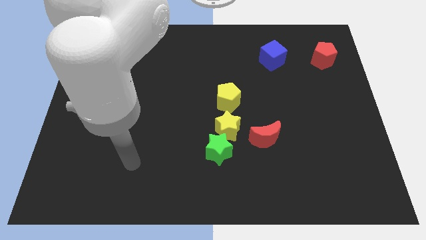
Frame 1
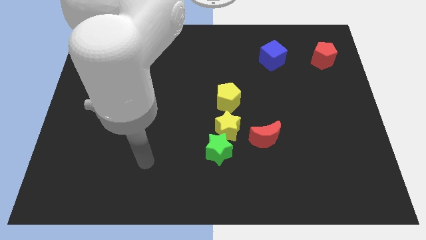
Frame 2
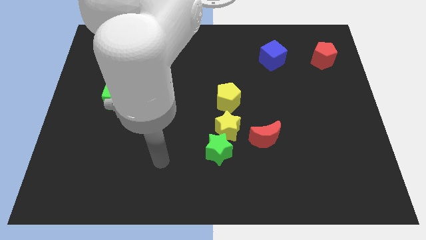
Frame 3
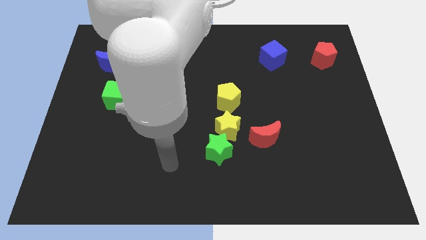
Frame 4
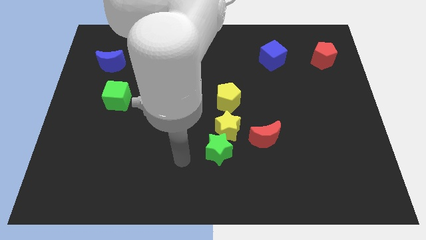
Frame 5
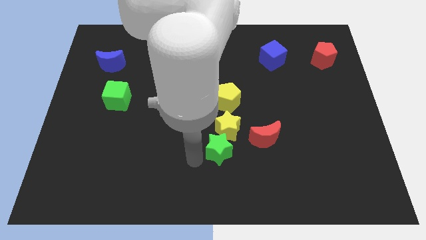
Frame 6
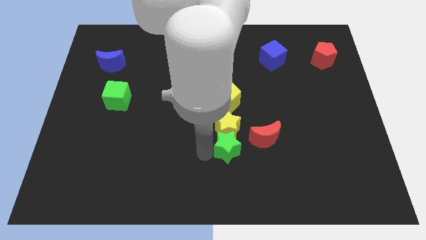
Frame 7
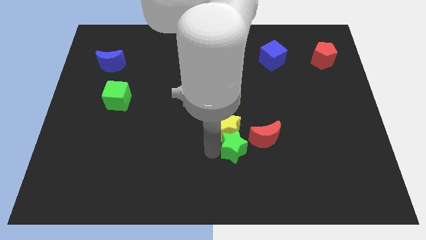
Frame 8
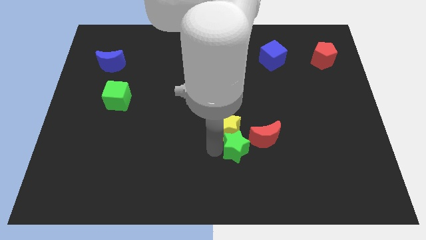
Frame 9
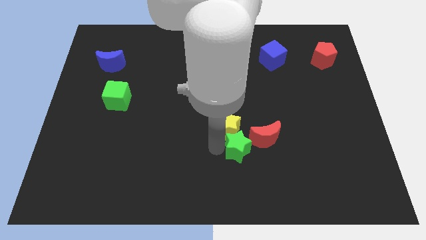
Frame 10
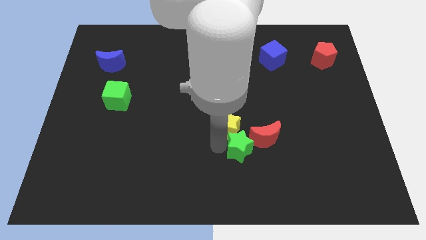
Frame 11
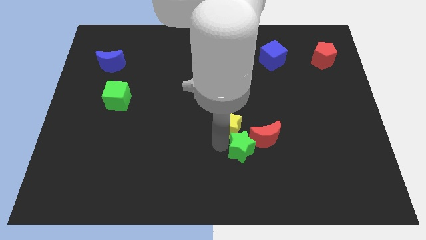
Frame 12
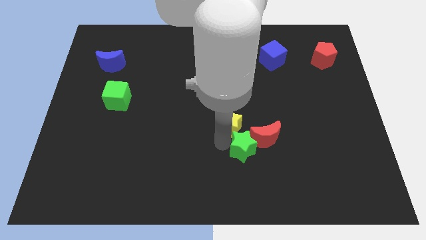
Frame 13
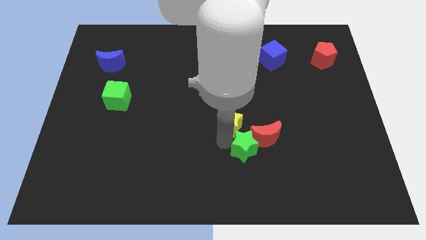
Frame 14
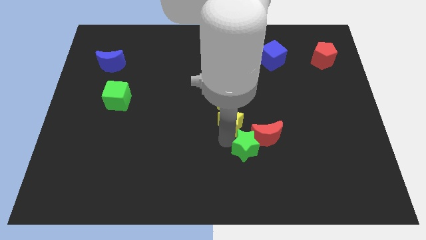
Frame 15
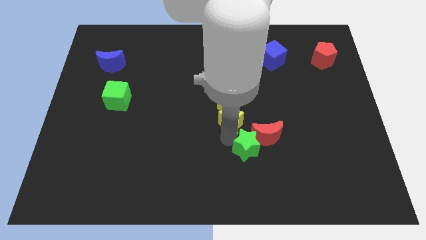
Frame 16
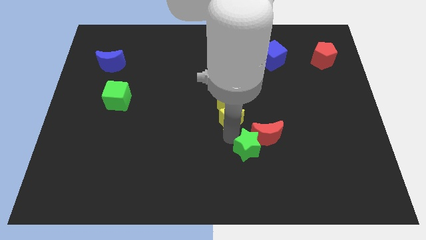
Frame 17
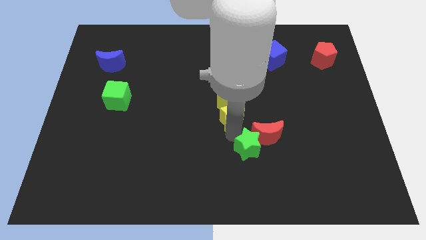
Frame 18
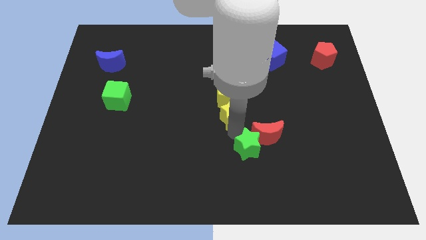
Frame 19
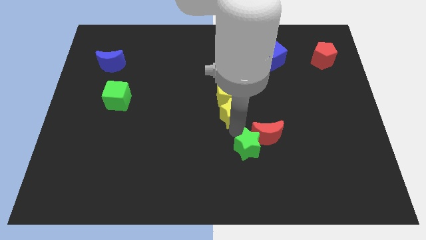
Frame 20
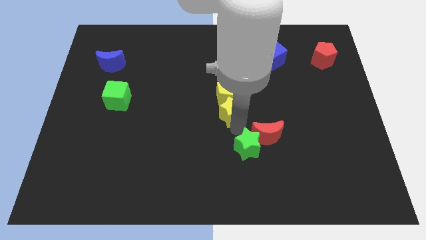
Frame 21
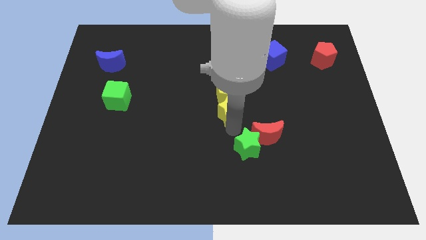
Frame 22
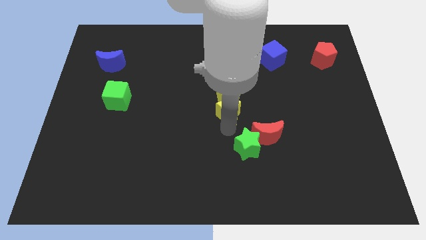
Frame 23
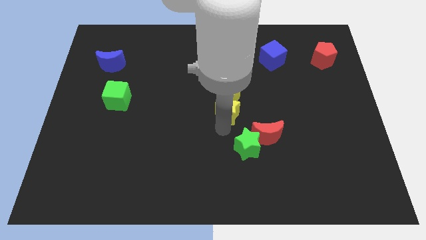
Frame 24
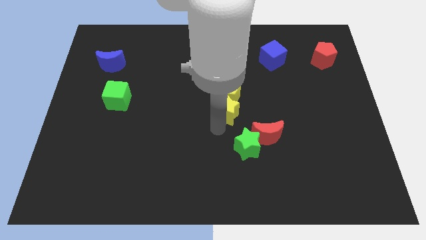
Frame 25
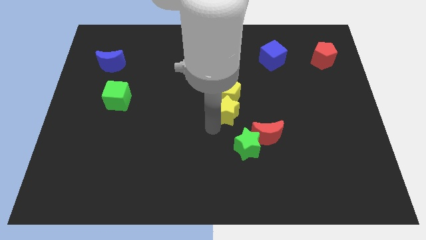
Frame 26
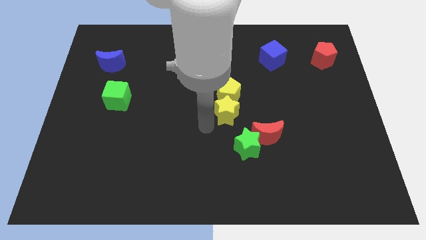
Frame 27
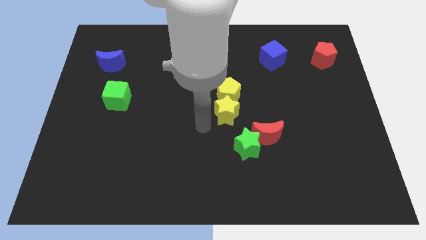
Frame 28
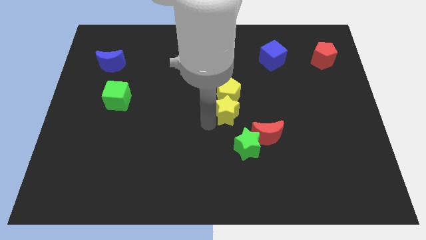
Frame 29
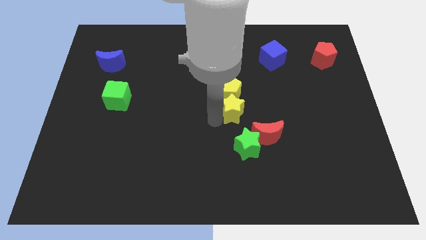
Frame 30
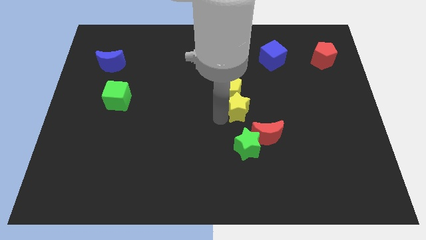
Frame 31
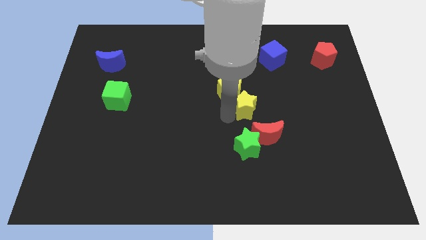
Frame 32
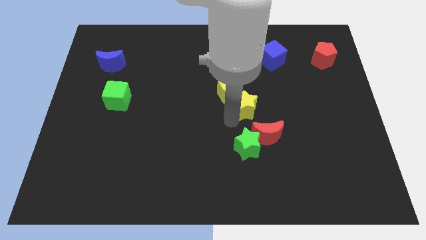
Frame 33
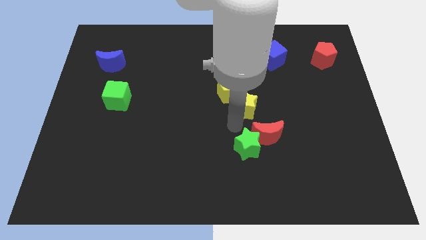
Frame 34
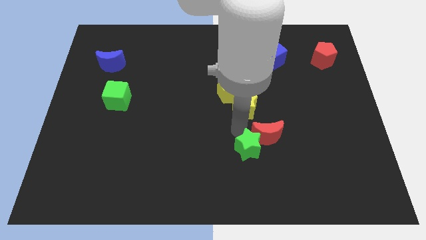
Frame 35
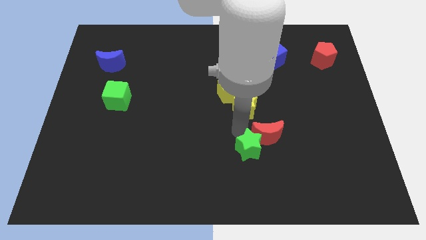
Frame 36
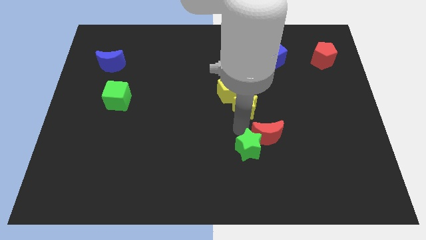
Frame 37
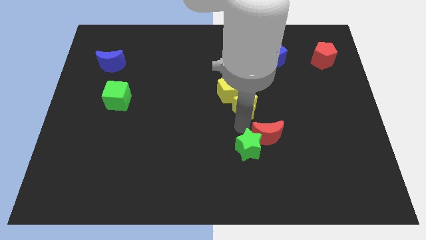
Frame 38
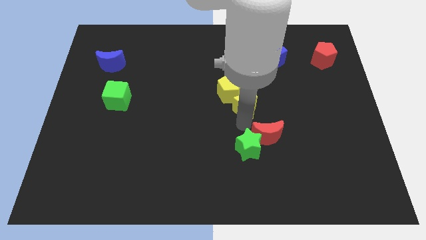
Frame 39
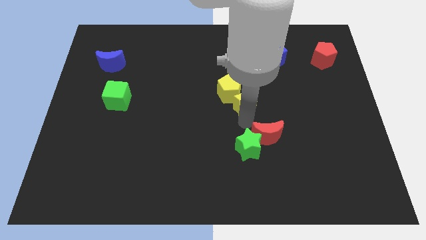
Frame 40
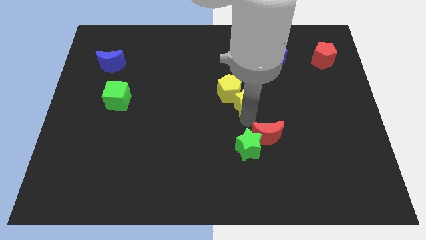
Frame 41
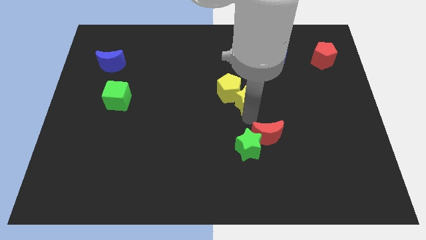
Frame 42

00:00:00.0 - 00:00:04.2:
slightly move the yellow star up

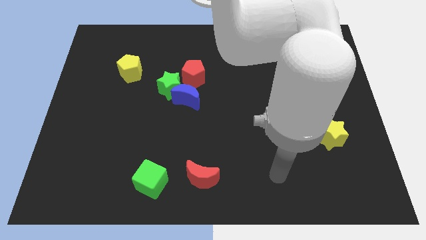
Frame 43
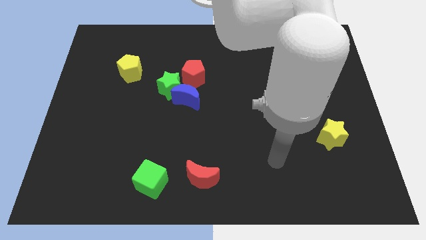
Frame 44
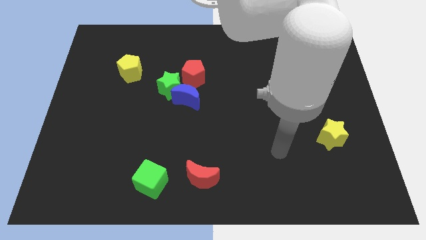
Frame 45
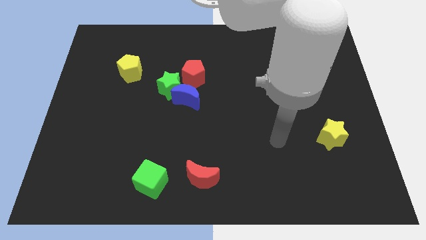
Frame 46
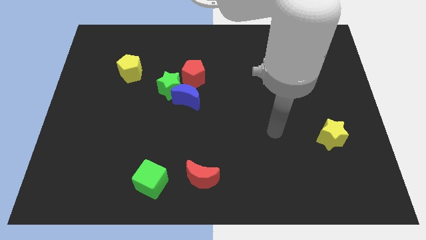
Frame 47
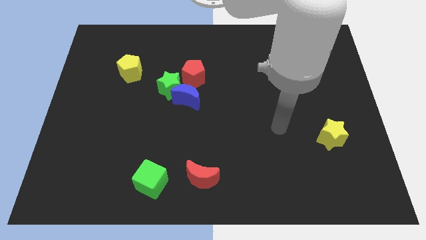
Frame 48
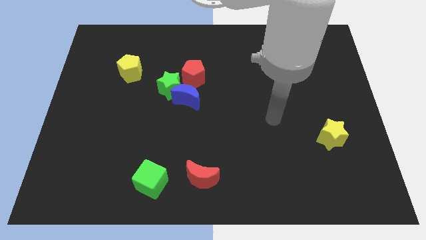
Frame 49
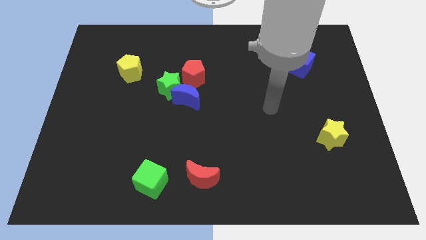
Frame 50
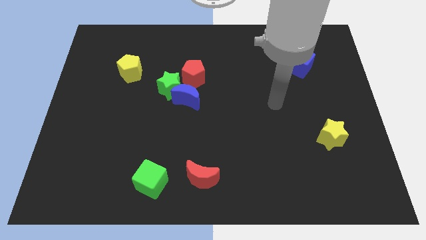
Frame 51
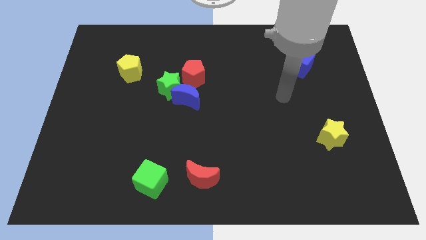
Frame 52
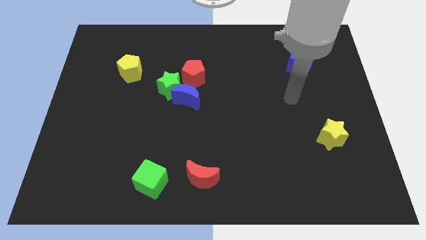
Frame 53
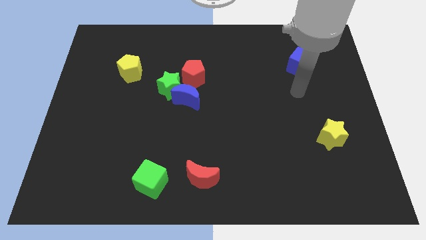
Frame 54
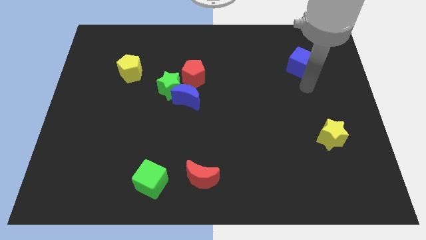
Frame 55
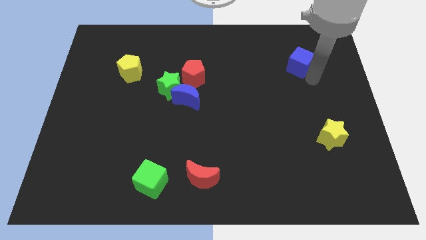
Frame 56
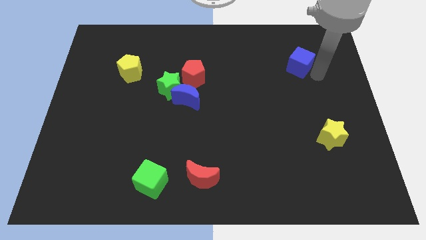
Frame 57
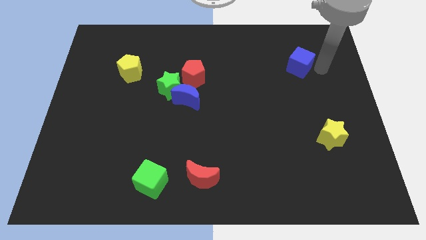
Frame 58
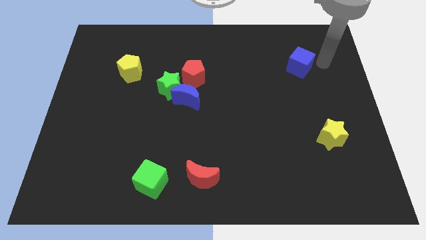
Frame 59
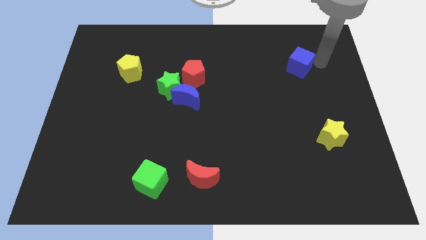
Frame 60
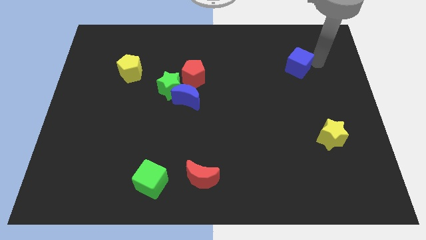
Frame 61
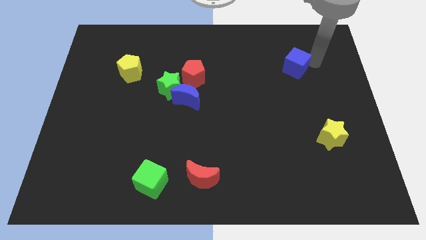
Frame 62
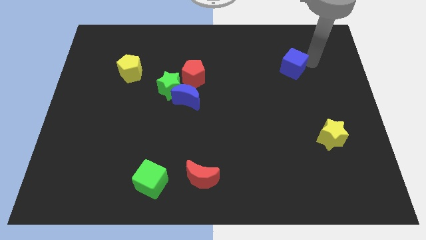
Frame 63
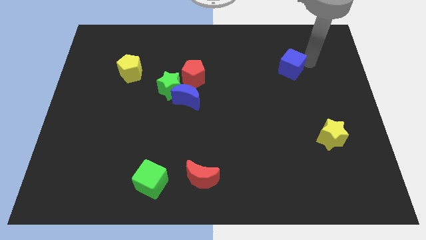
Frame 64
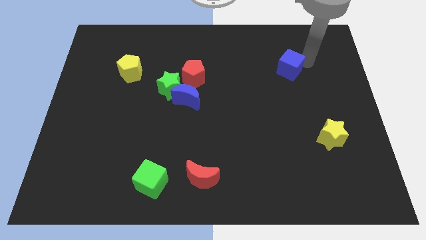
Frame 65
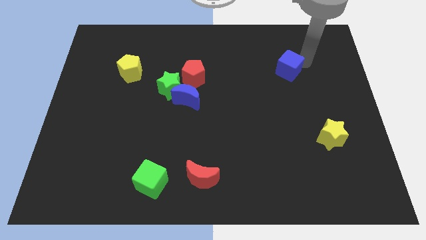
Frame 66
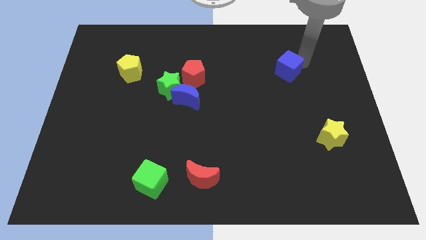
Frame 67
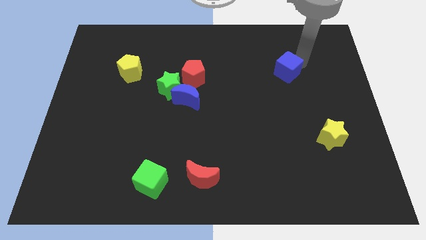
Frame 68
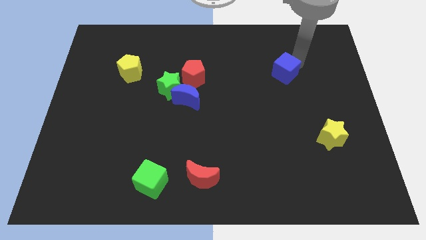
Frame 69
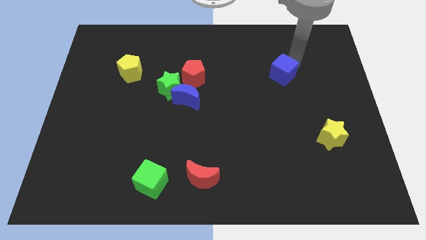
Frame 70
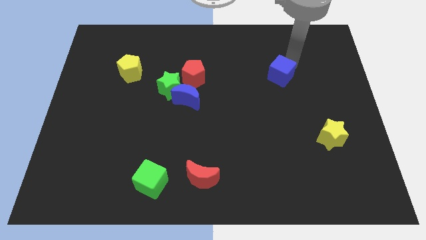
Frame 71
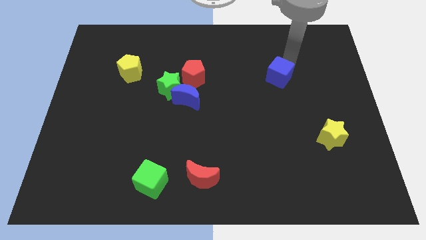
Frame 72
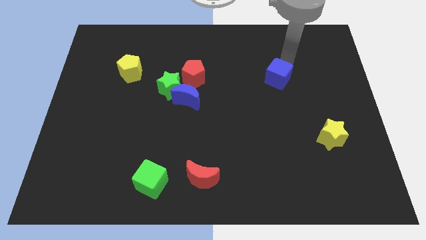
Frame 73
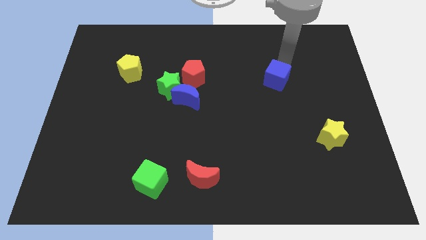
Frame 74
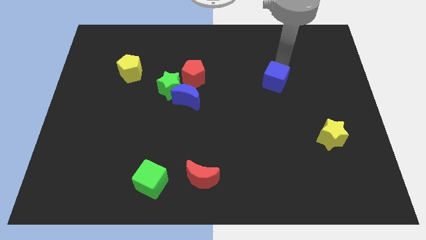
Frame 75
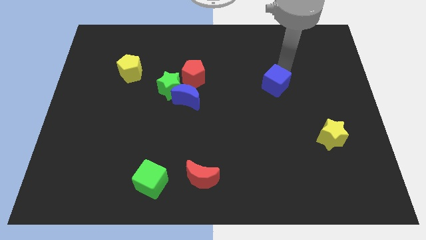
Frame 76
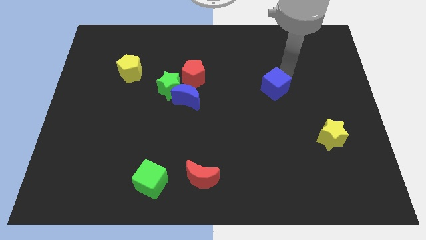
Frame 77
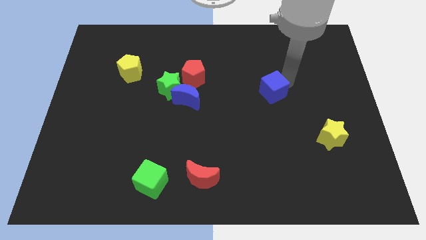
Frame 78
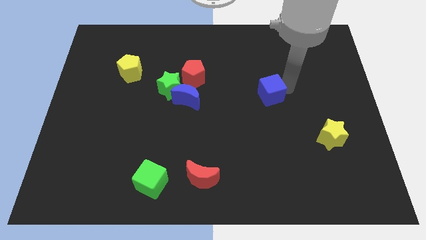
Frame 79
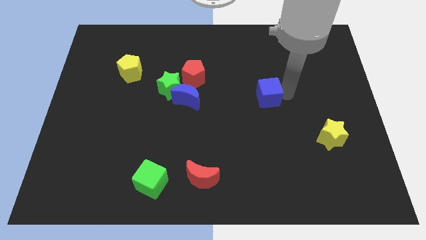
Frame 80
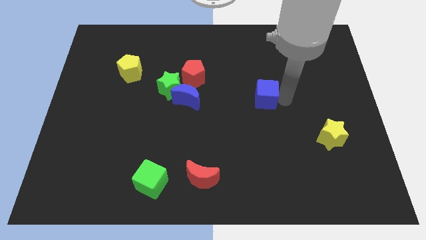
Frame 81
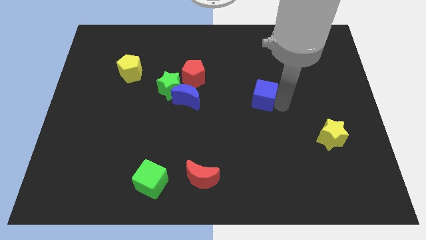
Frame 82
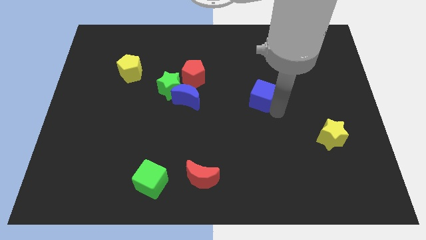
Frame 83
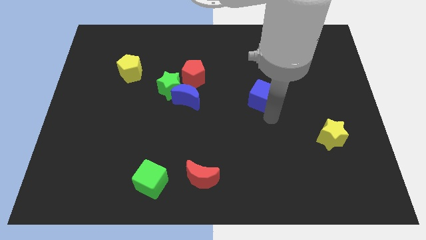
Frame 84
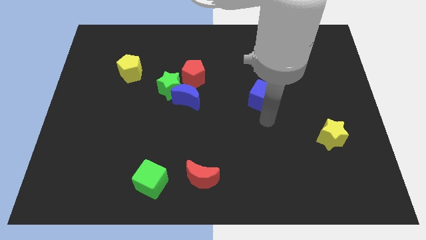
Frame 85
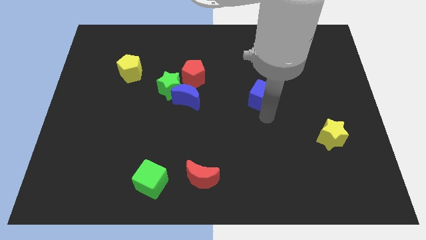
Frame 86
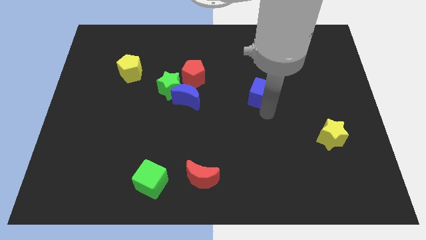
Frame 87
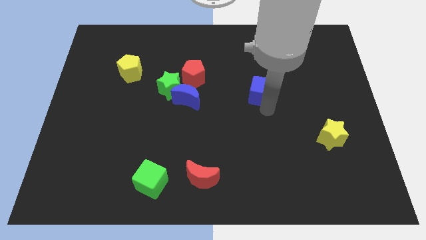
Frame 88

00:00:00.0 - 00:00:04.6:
slightly push the blue cube to the left
